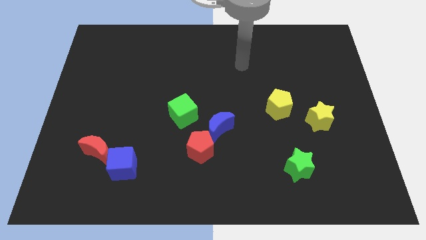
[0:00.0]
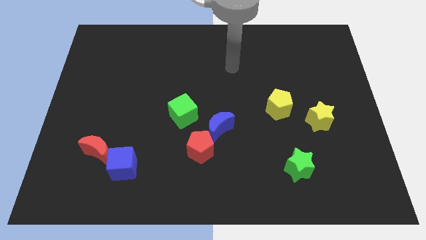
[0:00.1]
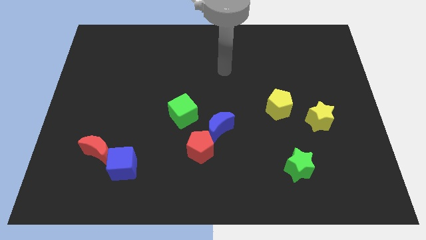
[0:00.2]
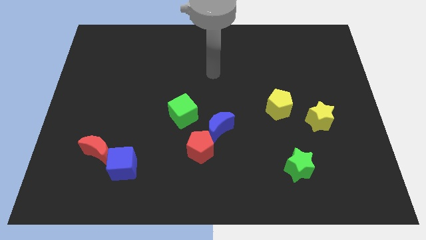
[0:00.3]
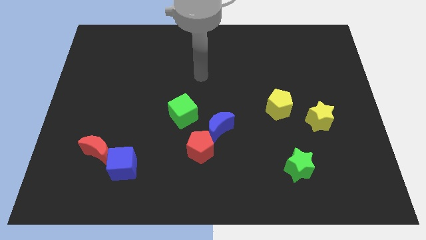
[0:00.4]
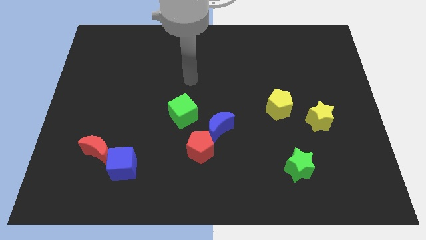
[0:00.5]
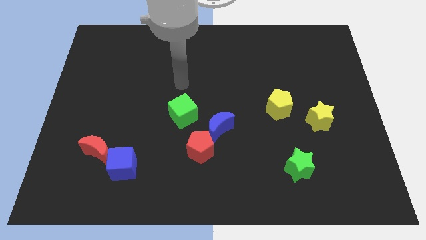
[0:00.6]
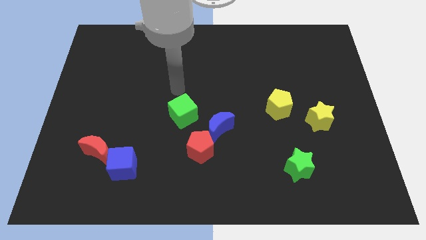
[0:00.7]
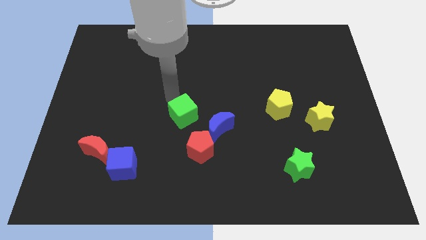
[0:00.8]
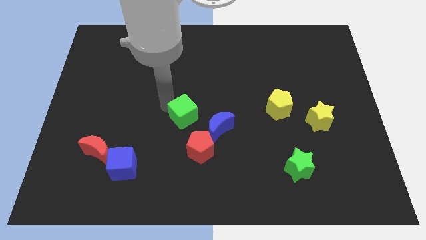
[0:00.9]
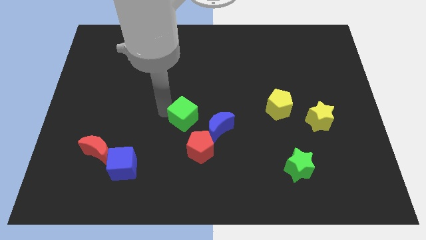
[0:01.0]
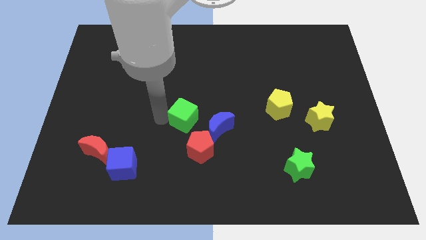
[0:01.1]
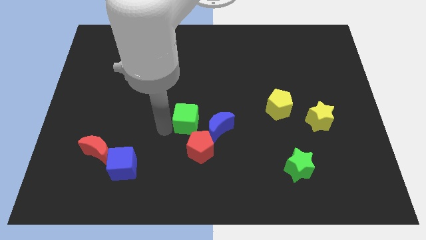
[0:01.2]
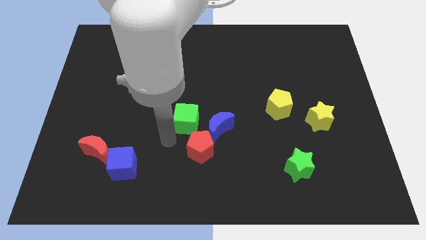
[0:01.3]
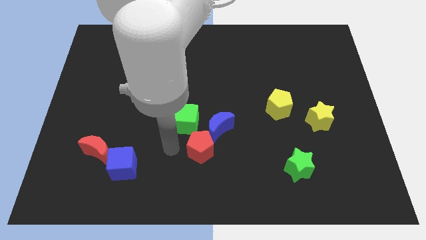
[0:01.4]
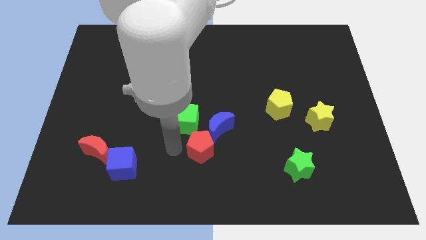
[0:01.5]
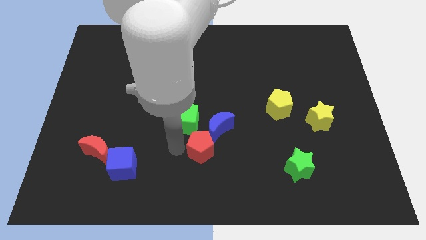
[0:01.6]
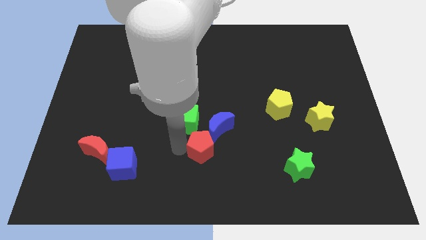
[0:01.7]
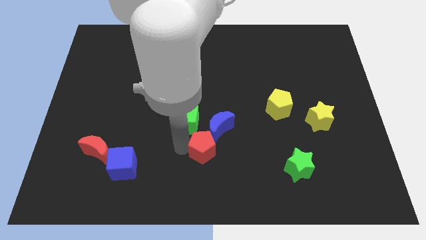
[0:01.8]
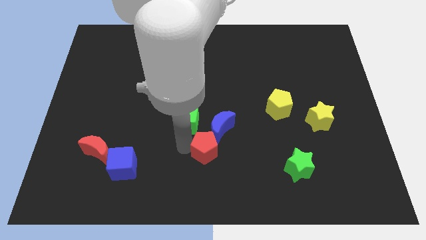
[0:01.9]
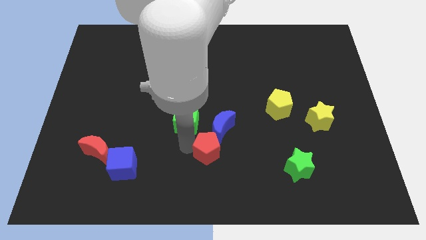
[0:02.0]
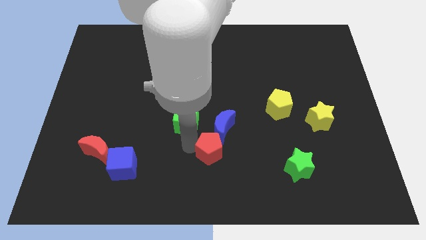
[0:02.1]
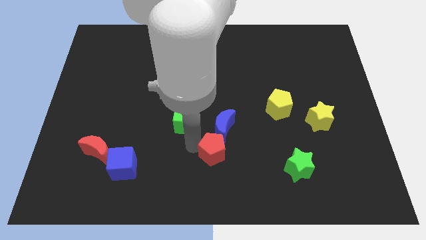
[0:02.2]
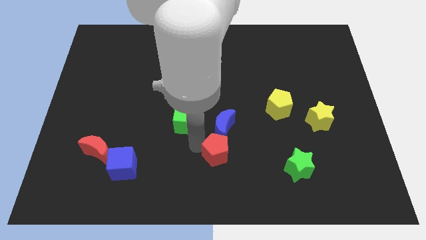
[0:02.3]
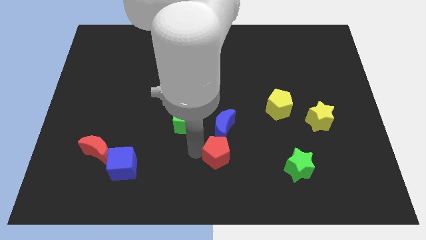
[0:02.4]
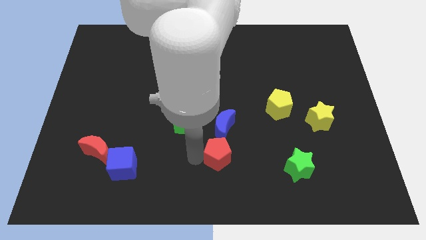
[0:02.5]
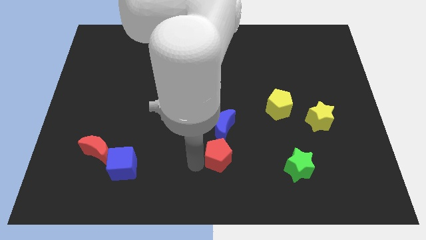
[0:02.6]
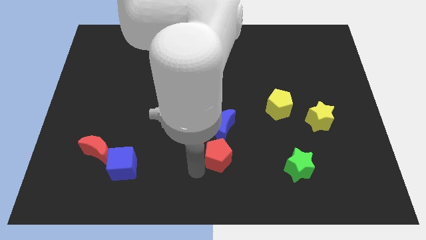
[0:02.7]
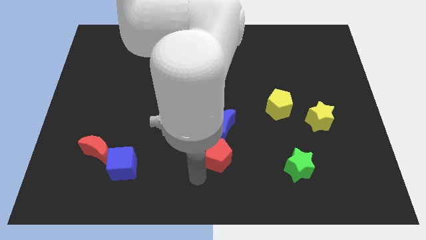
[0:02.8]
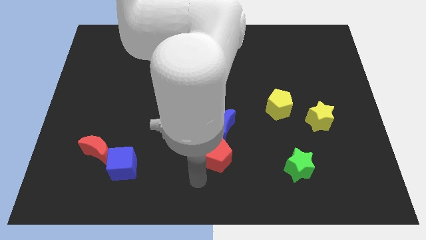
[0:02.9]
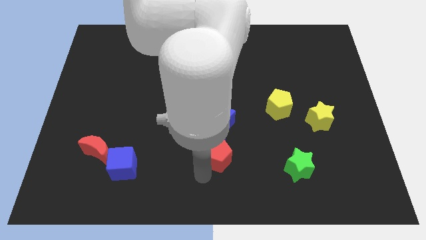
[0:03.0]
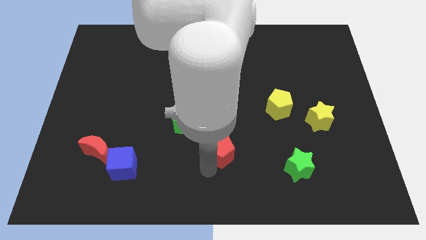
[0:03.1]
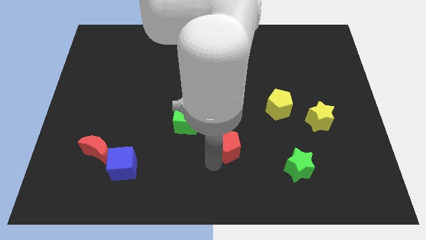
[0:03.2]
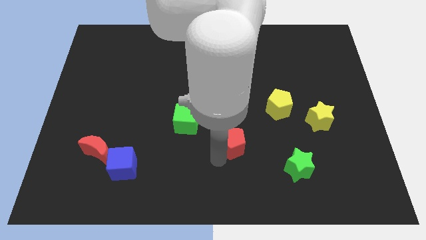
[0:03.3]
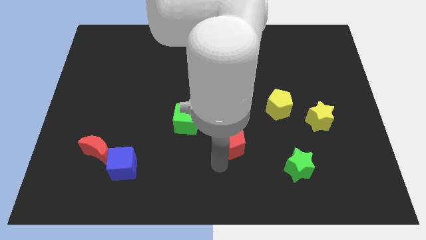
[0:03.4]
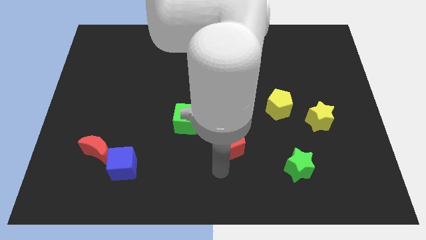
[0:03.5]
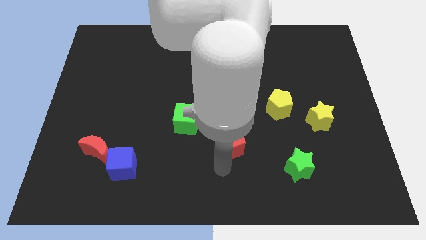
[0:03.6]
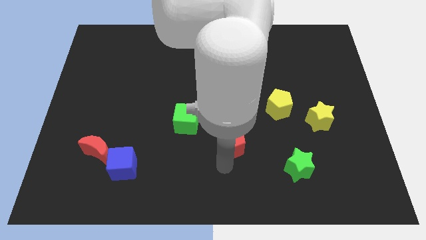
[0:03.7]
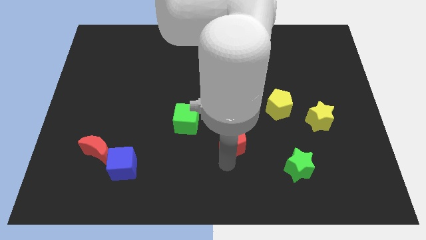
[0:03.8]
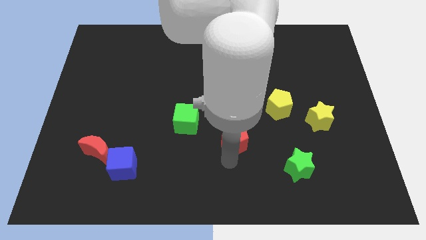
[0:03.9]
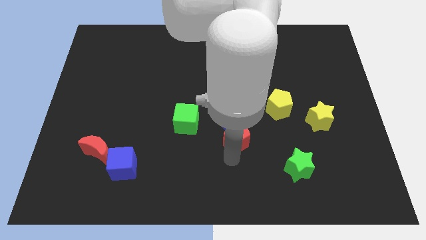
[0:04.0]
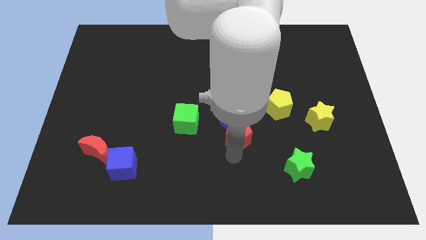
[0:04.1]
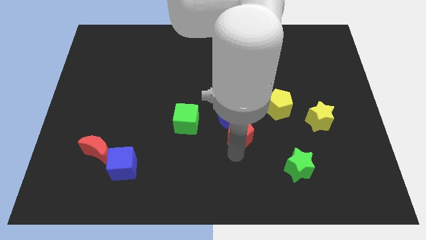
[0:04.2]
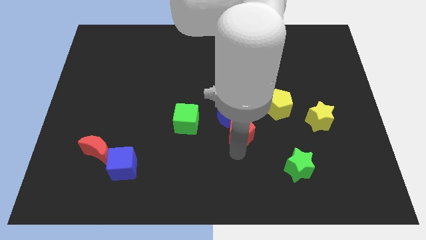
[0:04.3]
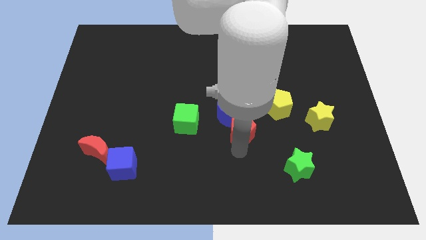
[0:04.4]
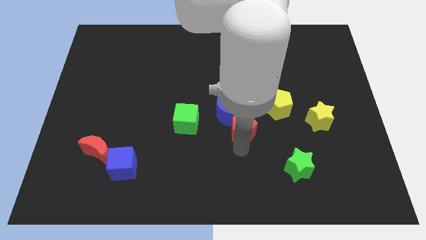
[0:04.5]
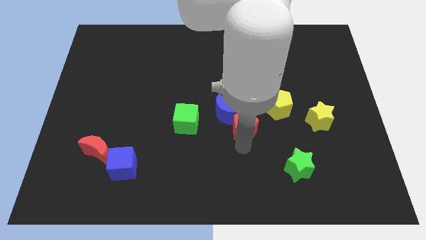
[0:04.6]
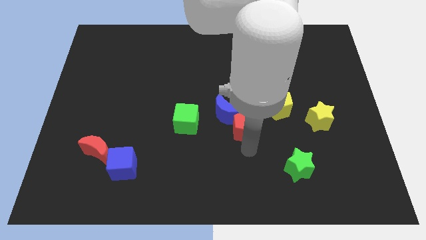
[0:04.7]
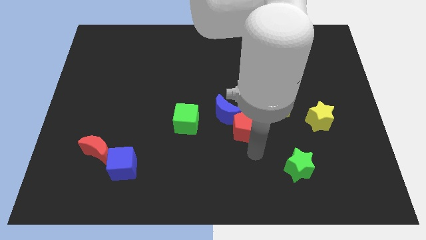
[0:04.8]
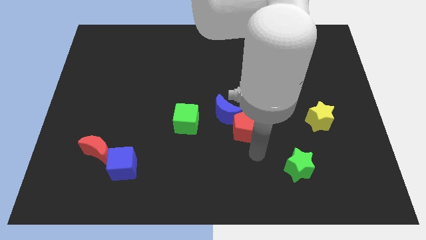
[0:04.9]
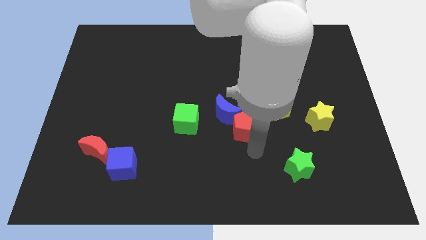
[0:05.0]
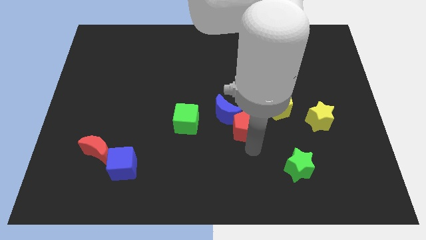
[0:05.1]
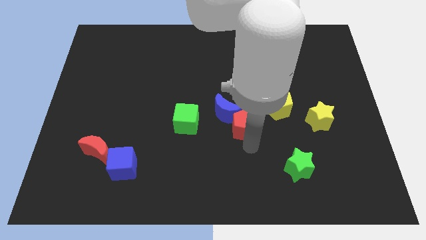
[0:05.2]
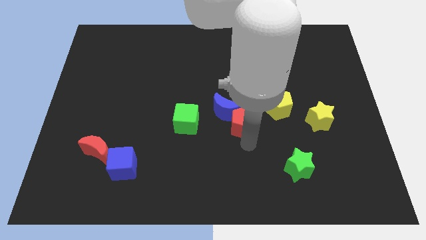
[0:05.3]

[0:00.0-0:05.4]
move the red pentagon to the left of the yellow pentagon

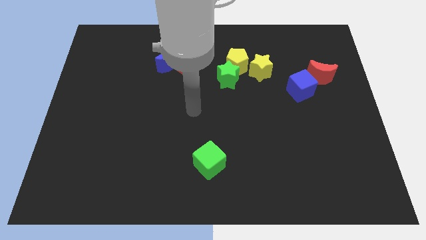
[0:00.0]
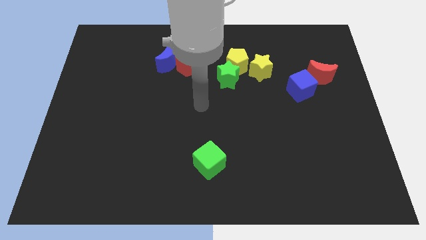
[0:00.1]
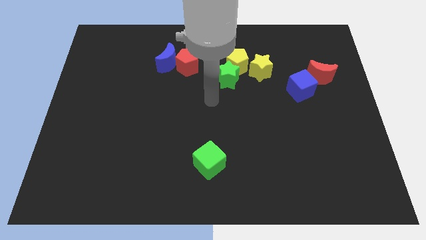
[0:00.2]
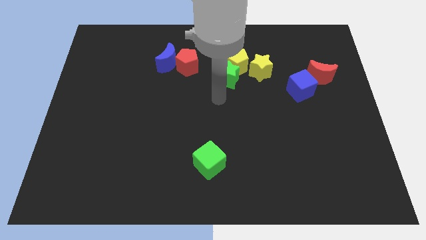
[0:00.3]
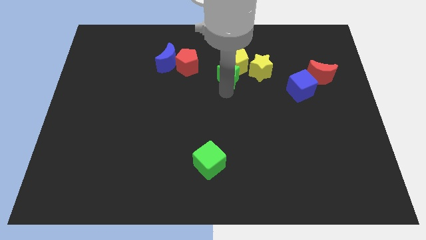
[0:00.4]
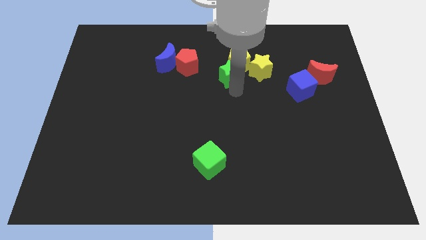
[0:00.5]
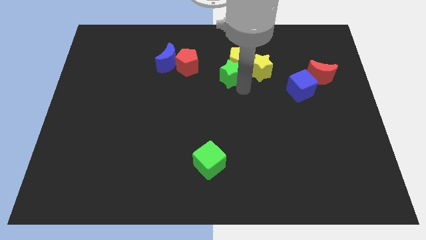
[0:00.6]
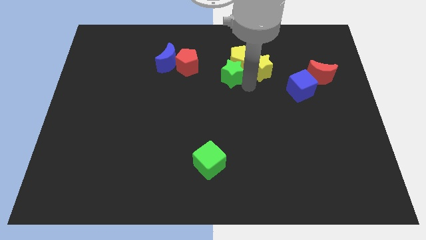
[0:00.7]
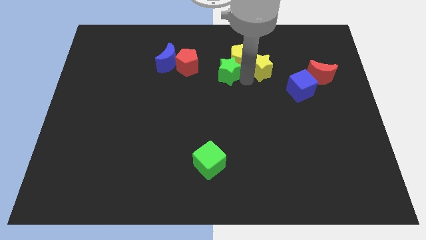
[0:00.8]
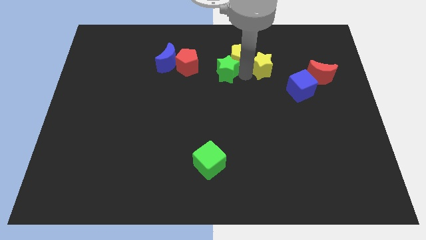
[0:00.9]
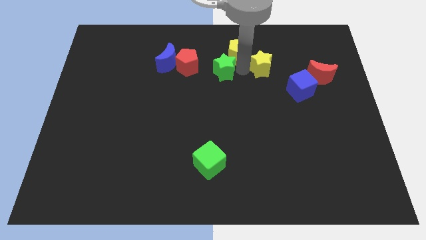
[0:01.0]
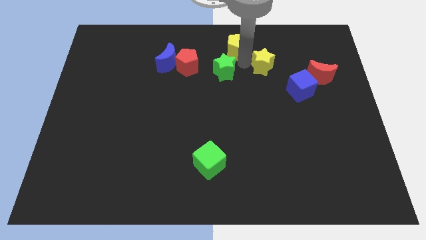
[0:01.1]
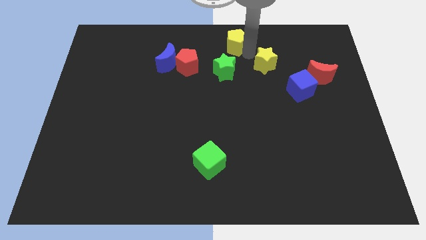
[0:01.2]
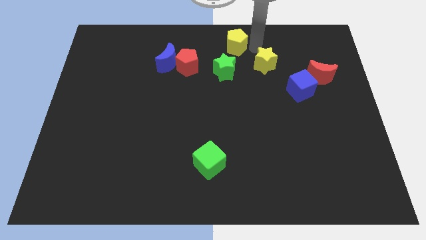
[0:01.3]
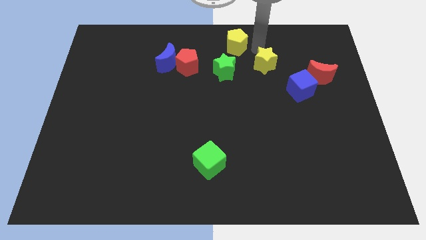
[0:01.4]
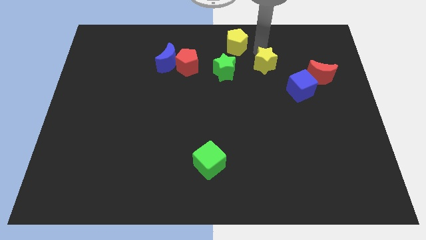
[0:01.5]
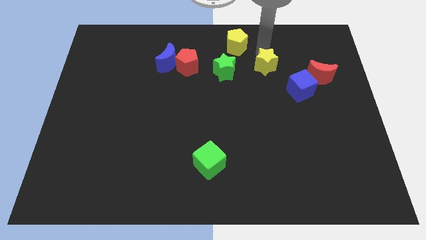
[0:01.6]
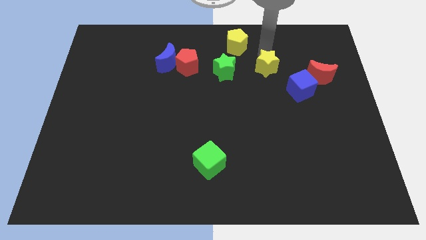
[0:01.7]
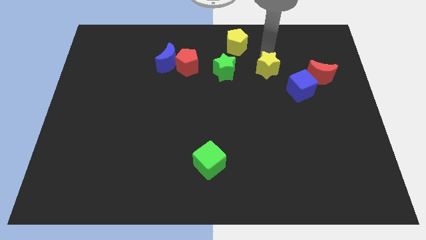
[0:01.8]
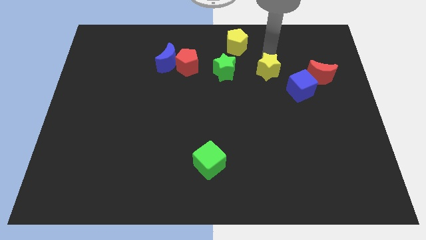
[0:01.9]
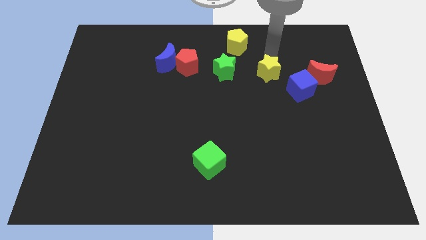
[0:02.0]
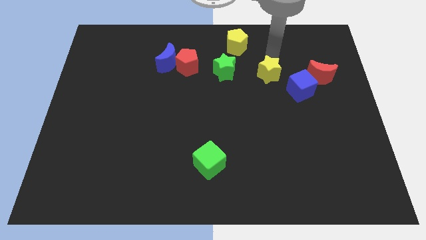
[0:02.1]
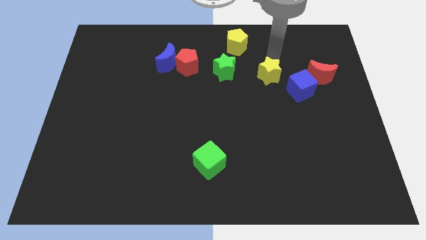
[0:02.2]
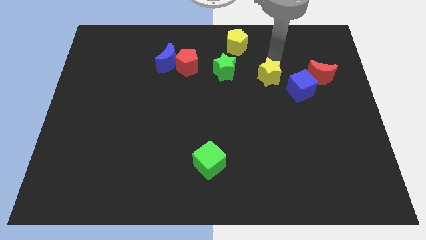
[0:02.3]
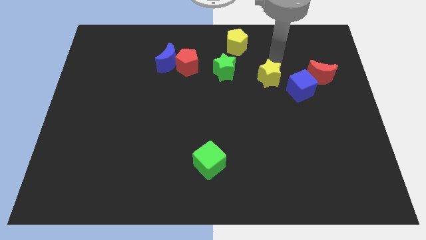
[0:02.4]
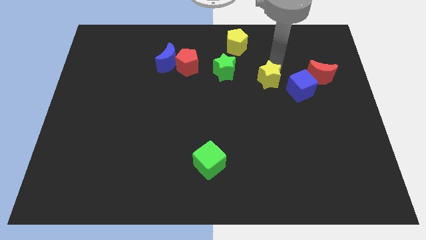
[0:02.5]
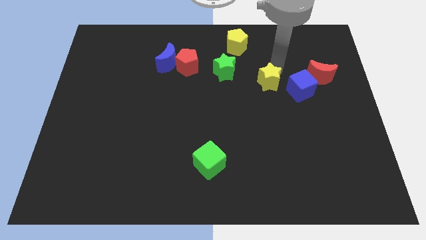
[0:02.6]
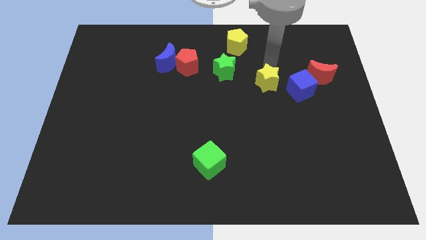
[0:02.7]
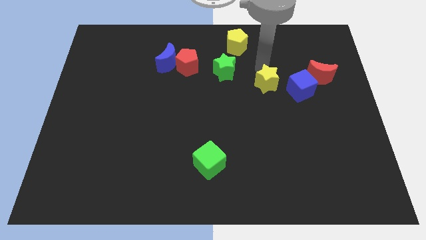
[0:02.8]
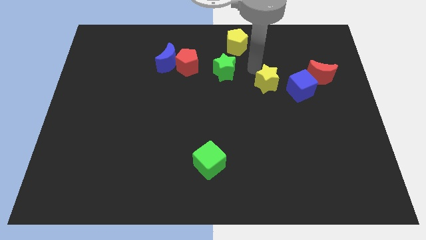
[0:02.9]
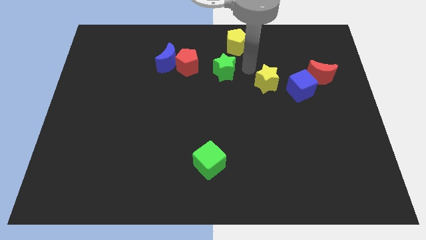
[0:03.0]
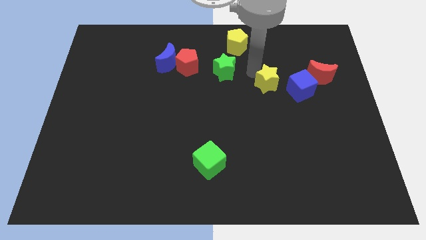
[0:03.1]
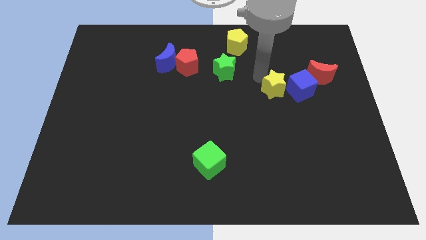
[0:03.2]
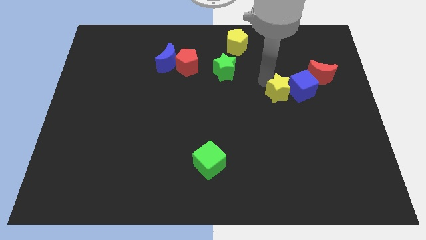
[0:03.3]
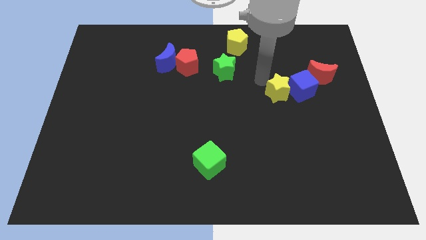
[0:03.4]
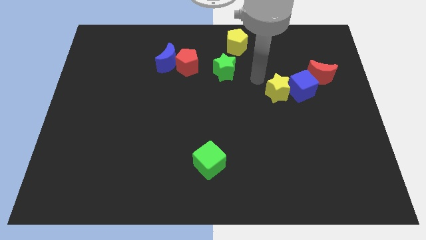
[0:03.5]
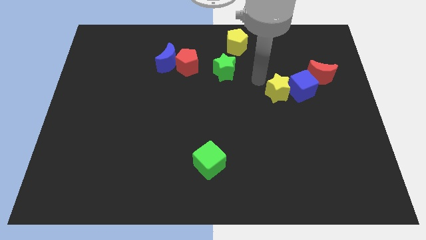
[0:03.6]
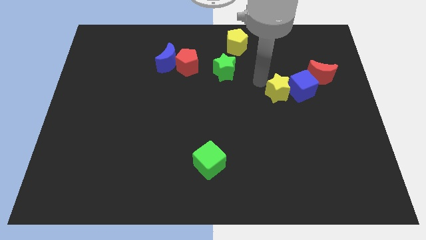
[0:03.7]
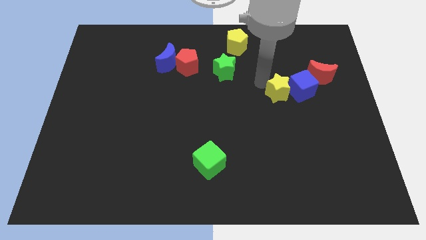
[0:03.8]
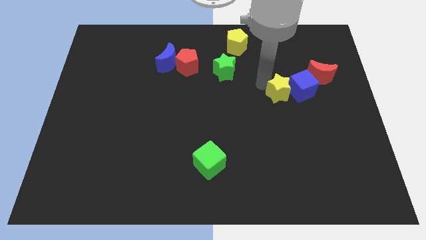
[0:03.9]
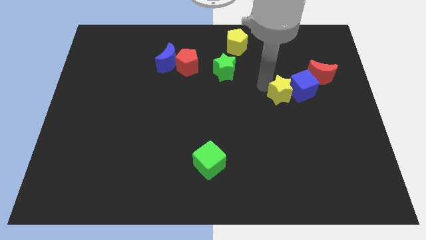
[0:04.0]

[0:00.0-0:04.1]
slide the yellow star to the bottom left of the red moon
